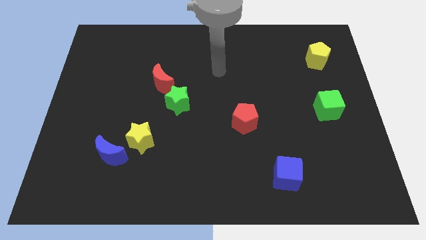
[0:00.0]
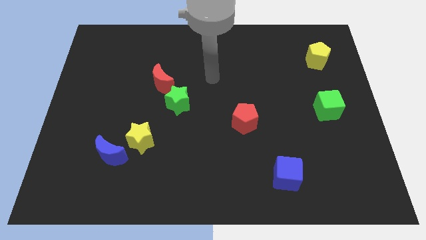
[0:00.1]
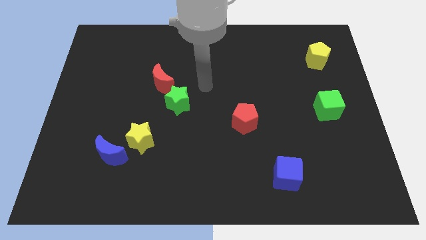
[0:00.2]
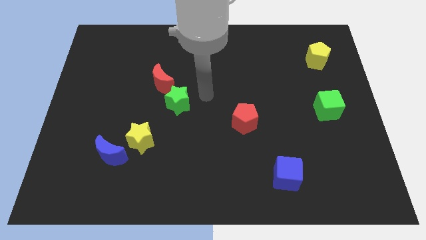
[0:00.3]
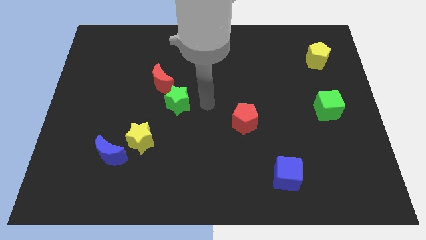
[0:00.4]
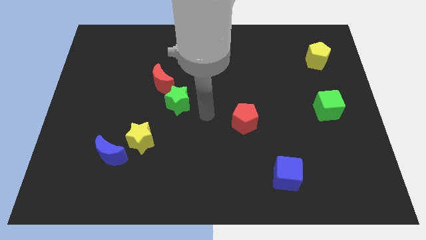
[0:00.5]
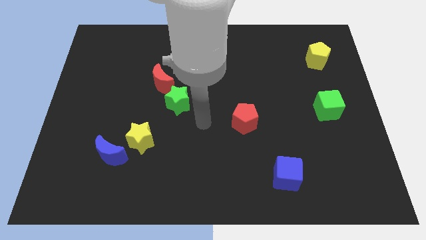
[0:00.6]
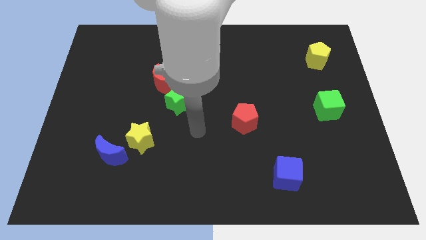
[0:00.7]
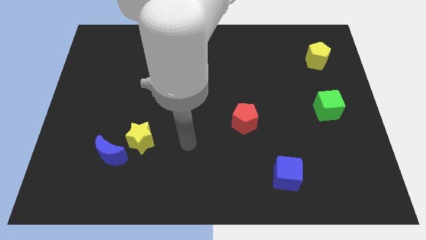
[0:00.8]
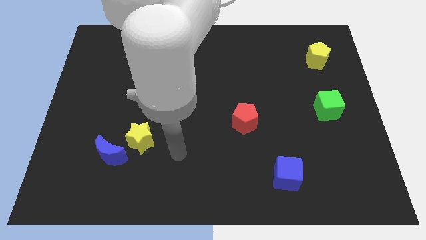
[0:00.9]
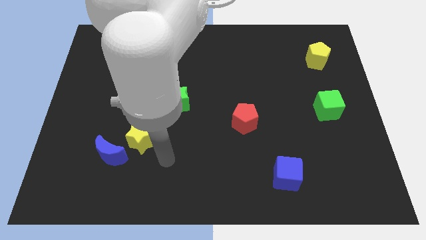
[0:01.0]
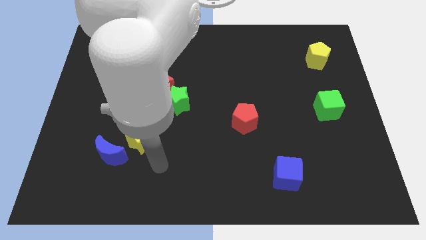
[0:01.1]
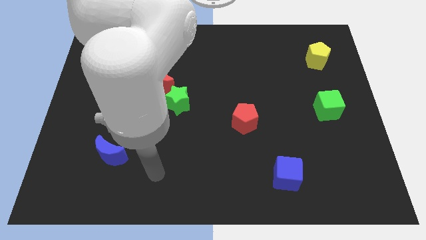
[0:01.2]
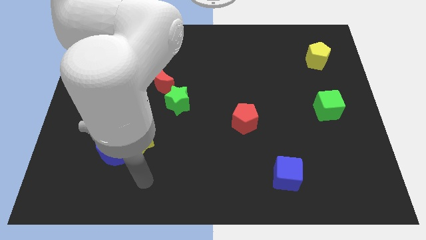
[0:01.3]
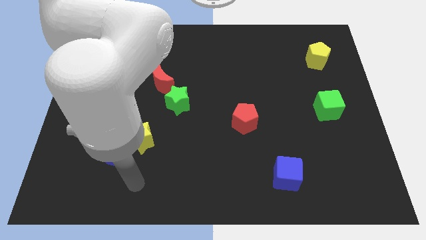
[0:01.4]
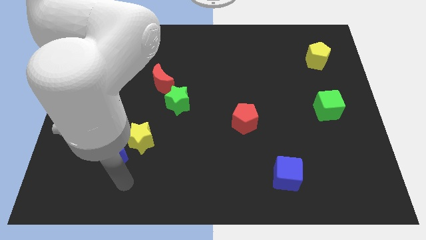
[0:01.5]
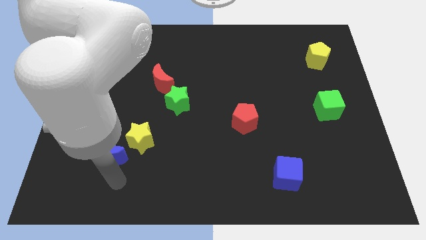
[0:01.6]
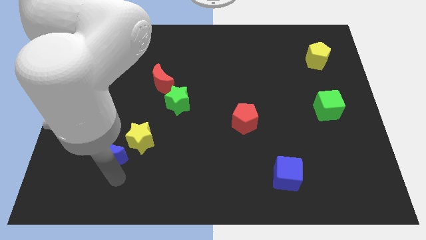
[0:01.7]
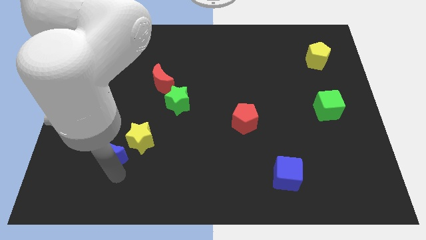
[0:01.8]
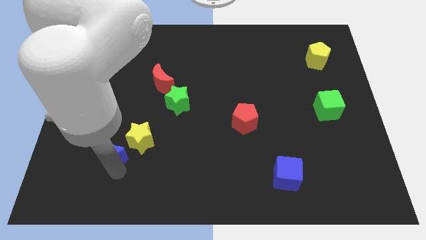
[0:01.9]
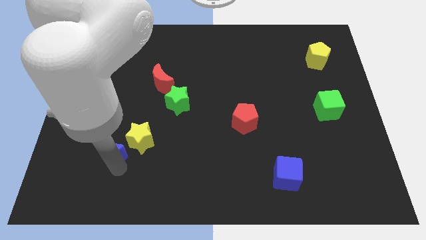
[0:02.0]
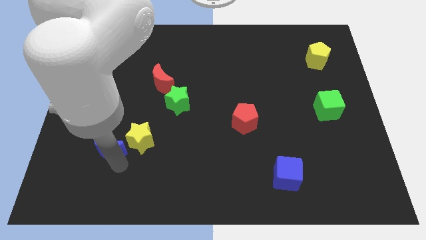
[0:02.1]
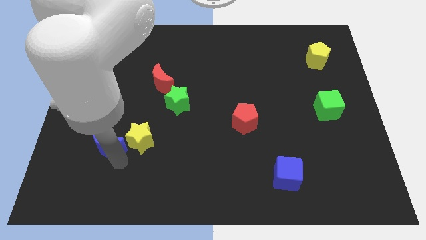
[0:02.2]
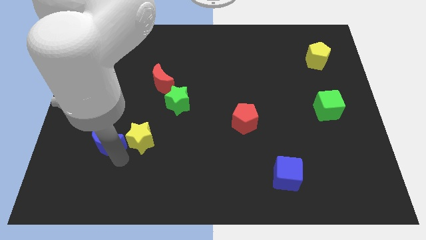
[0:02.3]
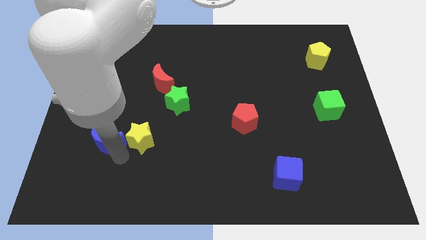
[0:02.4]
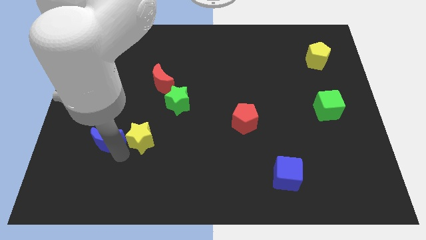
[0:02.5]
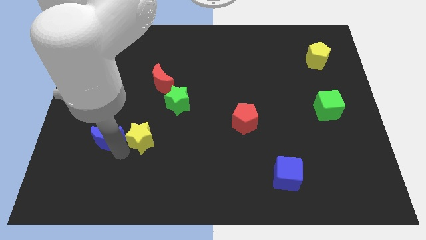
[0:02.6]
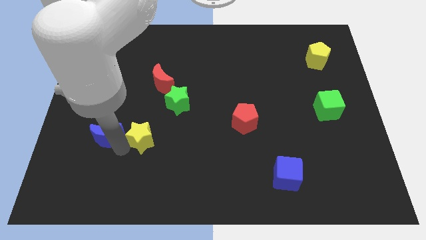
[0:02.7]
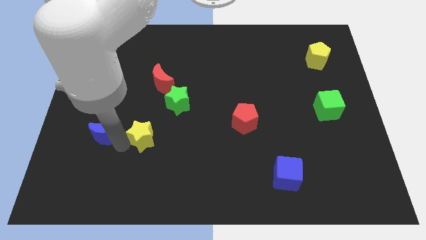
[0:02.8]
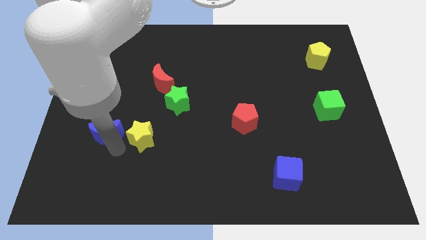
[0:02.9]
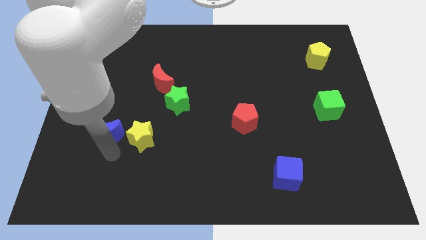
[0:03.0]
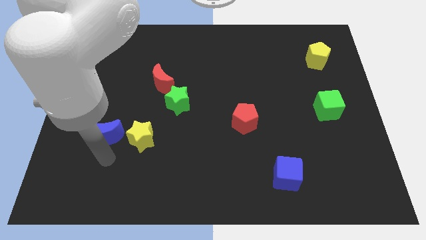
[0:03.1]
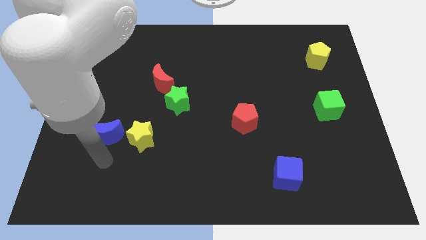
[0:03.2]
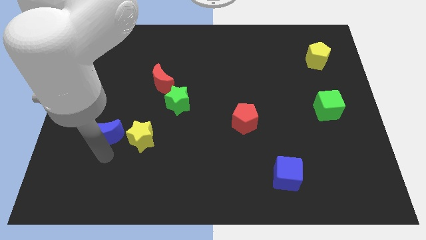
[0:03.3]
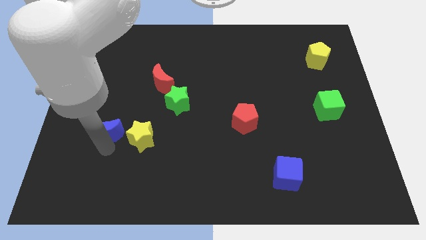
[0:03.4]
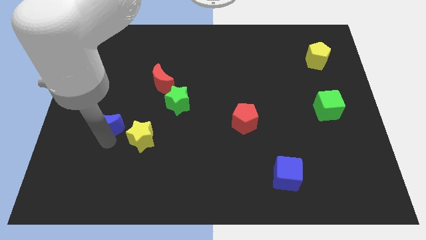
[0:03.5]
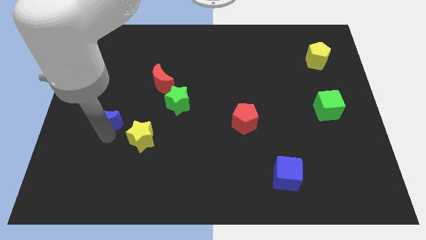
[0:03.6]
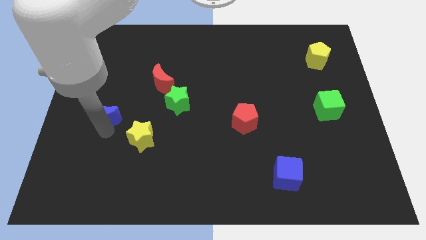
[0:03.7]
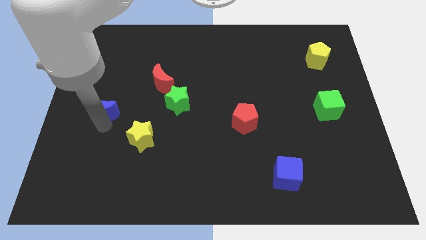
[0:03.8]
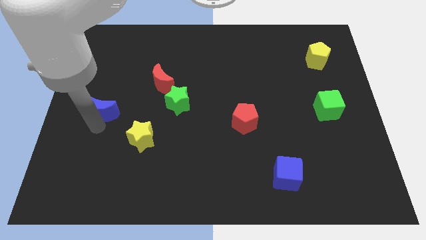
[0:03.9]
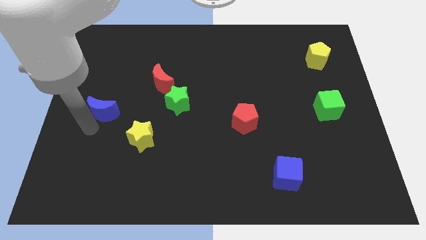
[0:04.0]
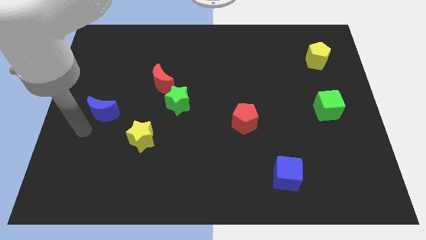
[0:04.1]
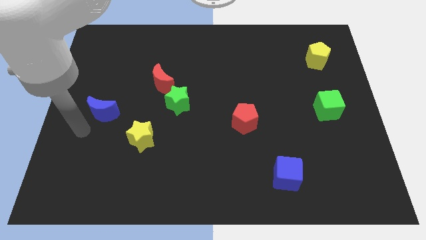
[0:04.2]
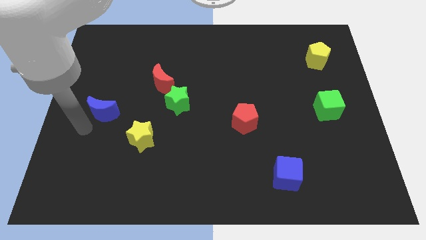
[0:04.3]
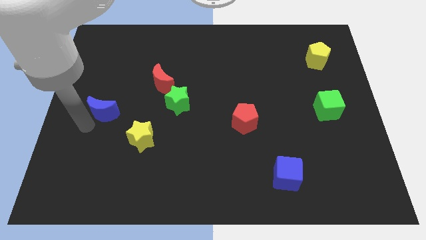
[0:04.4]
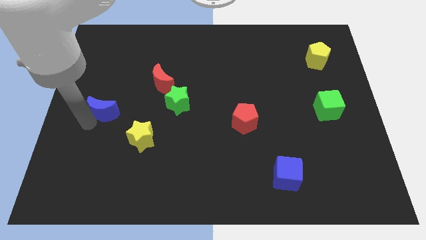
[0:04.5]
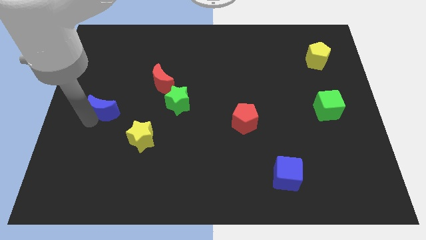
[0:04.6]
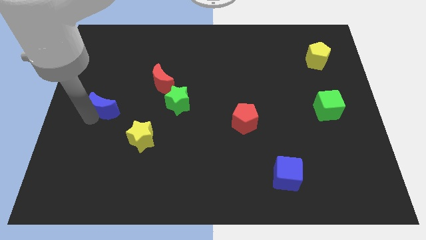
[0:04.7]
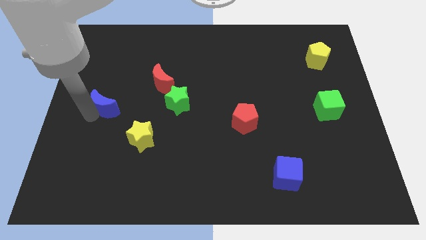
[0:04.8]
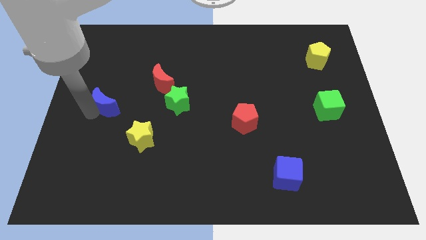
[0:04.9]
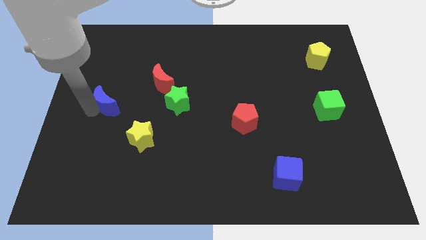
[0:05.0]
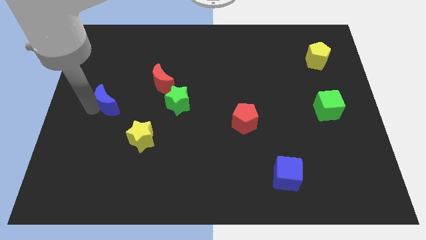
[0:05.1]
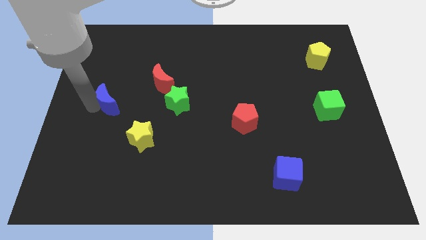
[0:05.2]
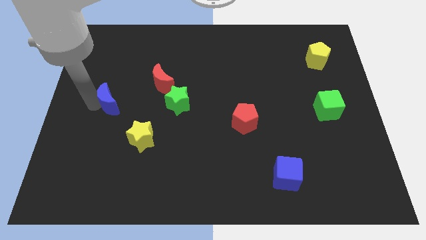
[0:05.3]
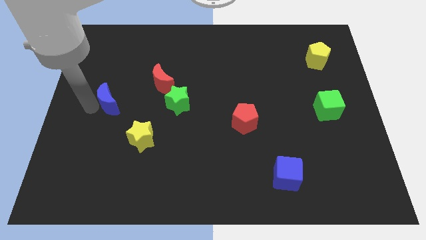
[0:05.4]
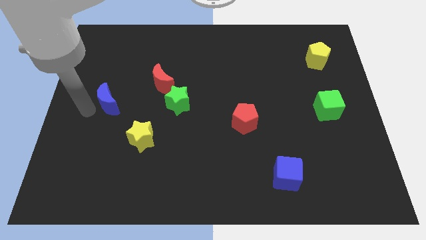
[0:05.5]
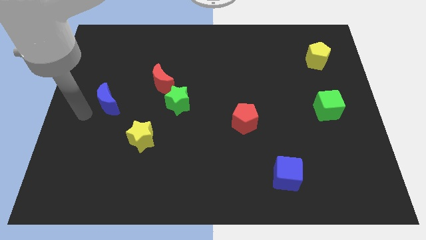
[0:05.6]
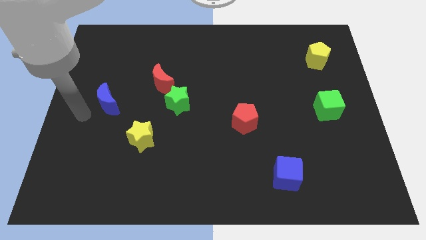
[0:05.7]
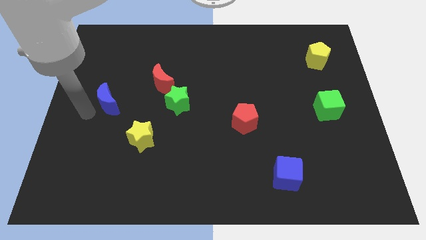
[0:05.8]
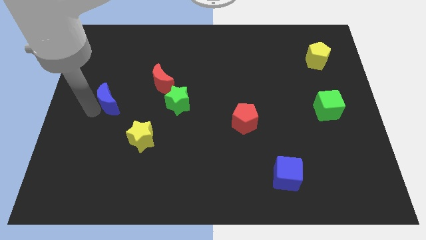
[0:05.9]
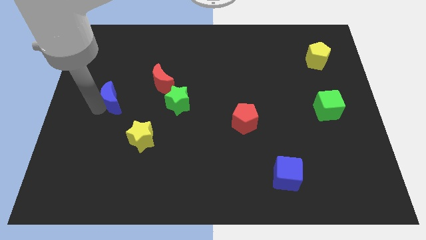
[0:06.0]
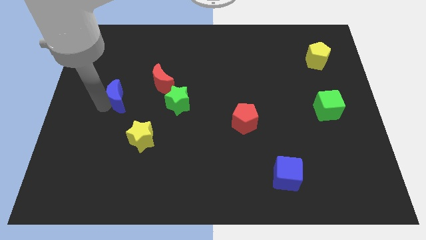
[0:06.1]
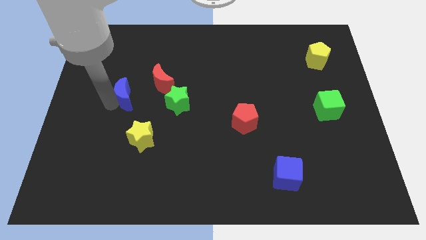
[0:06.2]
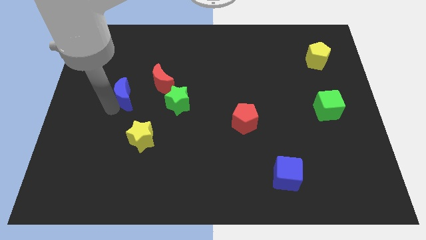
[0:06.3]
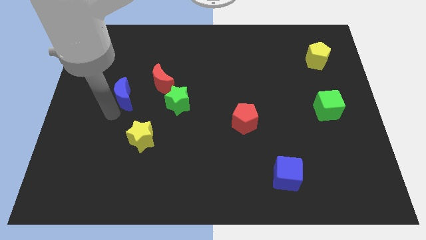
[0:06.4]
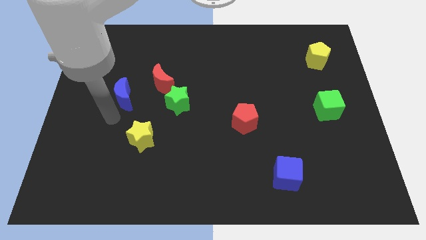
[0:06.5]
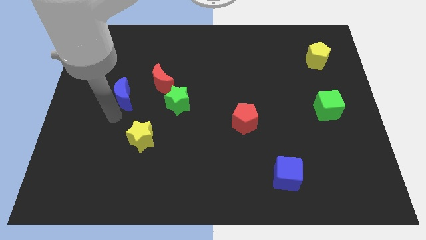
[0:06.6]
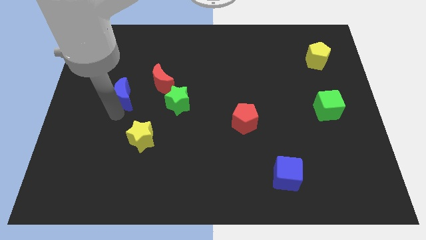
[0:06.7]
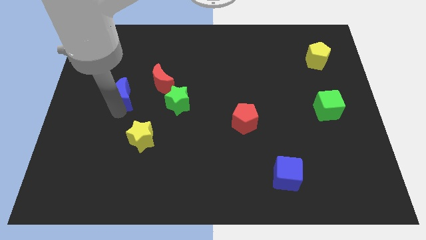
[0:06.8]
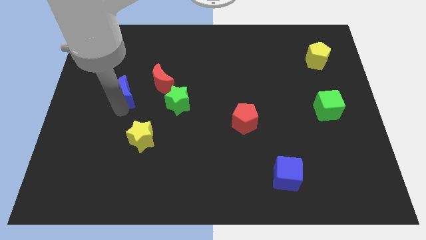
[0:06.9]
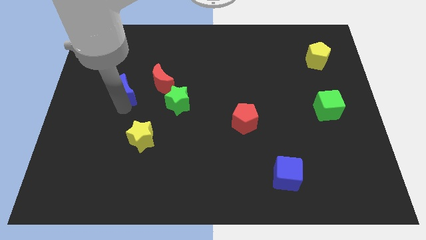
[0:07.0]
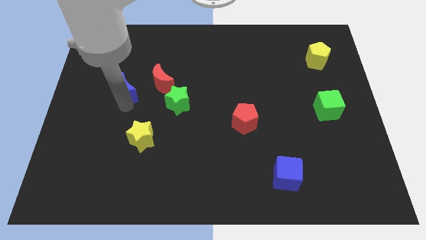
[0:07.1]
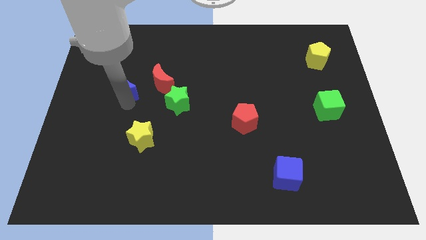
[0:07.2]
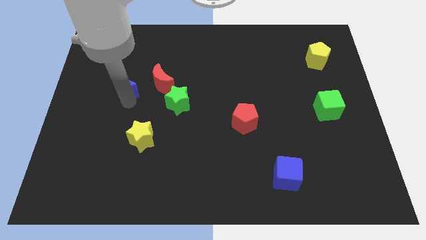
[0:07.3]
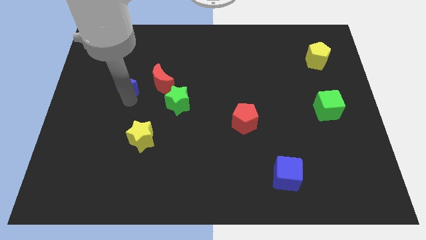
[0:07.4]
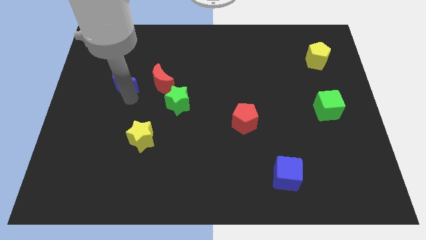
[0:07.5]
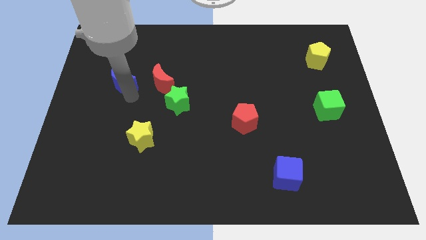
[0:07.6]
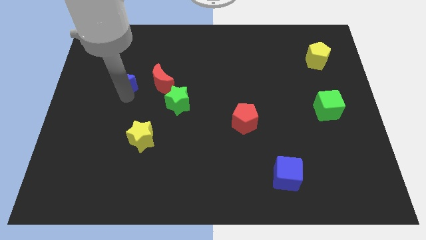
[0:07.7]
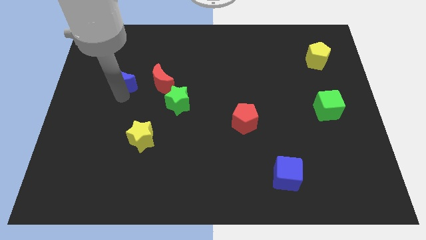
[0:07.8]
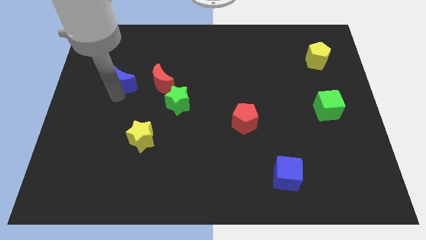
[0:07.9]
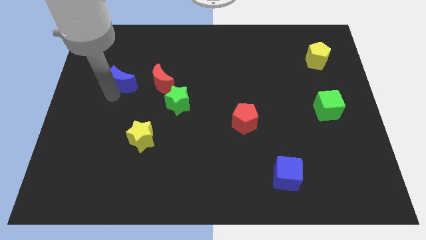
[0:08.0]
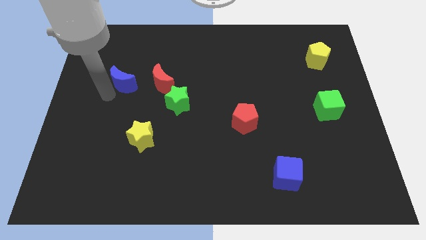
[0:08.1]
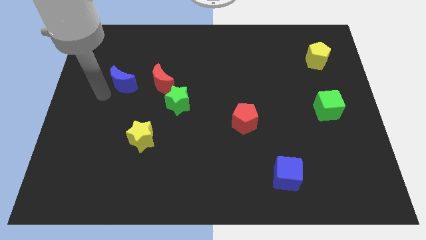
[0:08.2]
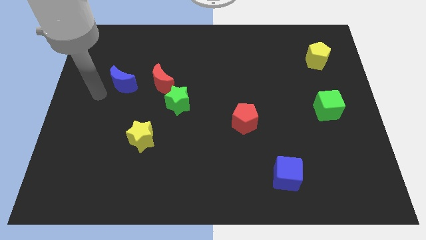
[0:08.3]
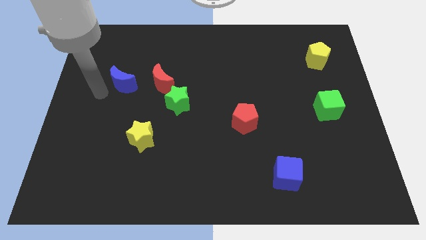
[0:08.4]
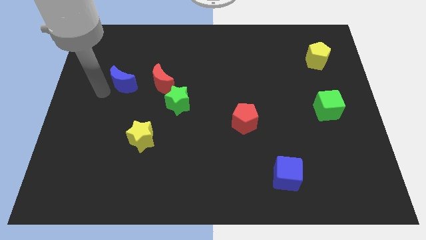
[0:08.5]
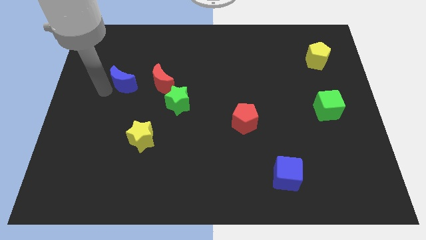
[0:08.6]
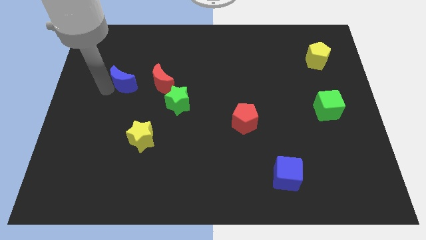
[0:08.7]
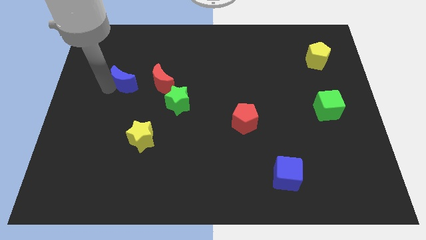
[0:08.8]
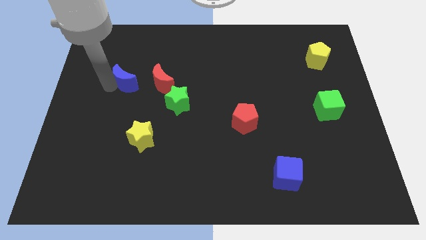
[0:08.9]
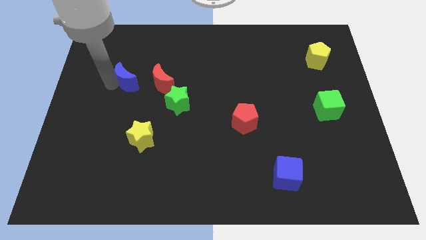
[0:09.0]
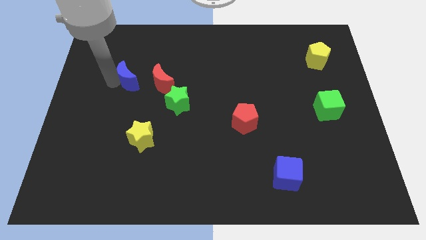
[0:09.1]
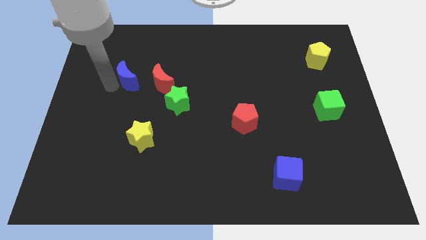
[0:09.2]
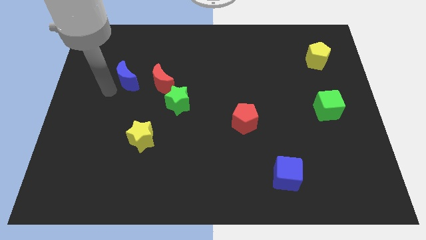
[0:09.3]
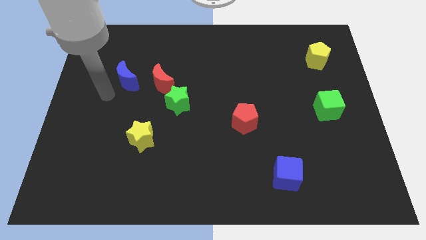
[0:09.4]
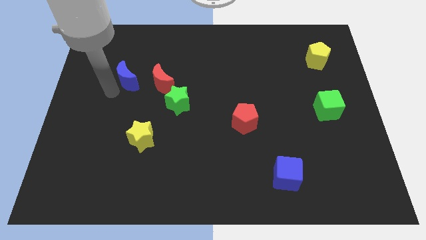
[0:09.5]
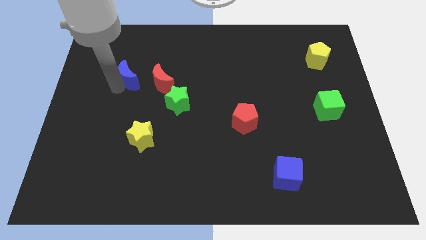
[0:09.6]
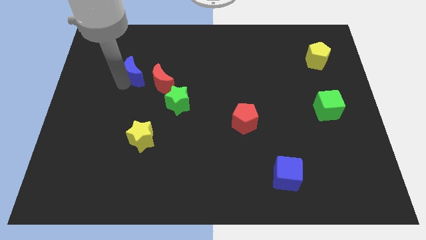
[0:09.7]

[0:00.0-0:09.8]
put the blue moon to the top left of the red moon
